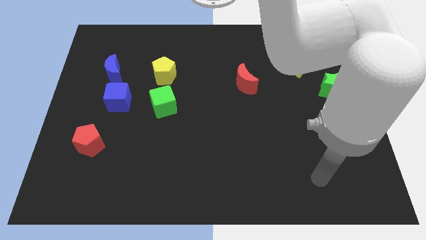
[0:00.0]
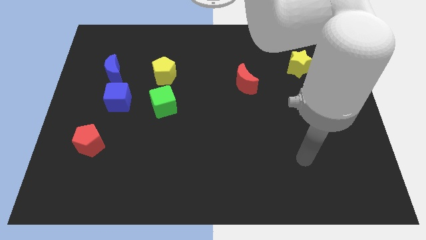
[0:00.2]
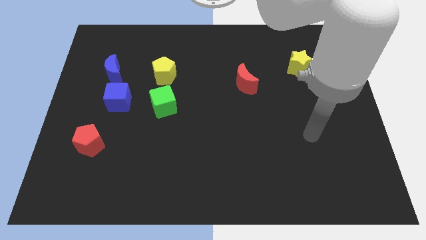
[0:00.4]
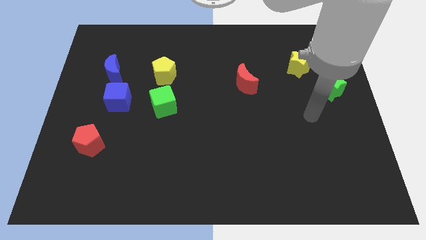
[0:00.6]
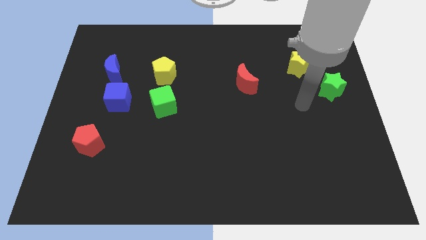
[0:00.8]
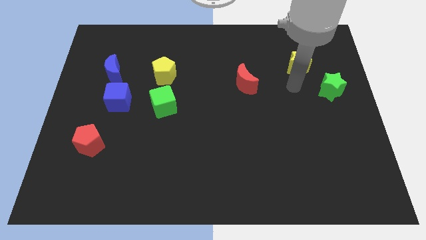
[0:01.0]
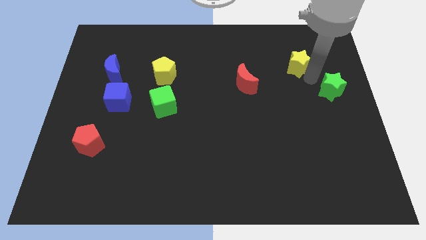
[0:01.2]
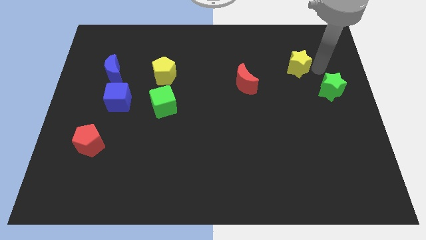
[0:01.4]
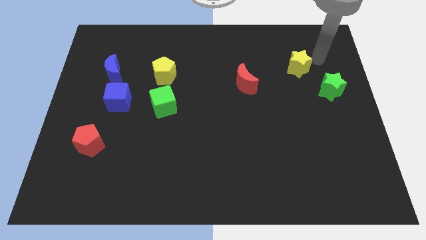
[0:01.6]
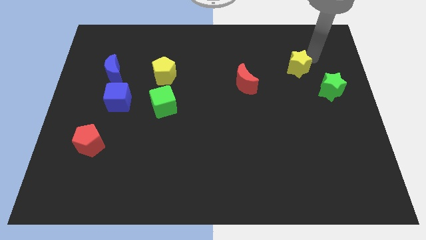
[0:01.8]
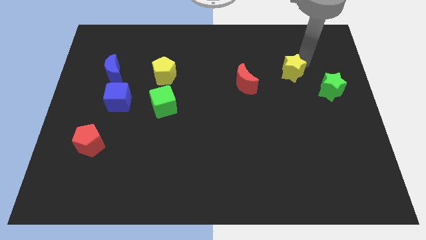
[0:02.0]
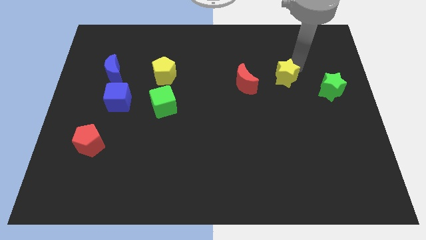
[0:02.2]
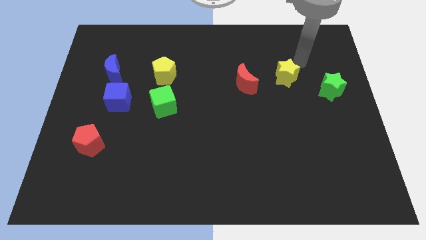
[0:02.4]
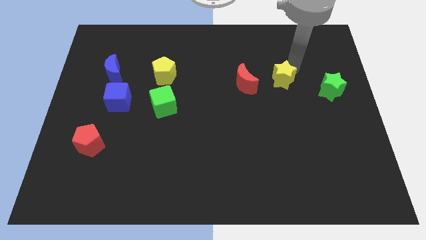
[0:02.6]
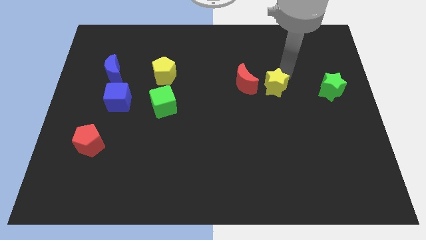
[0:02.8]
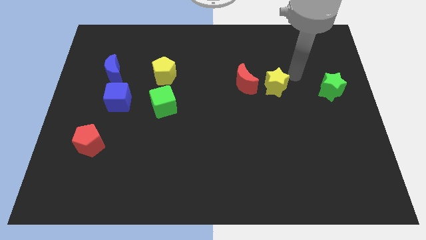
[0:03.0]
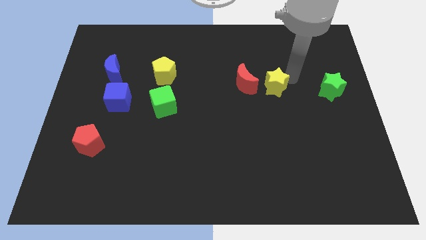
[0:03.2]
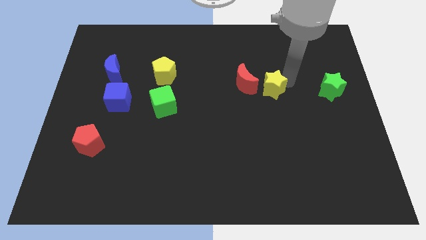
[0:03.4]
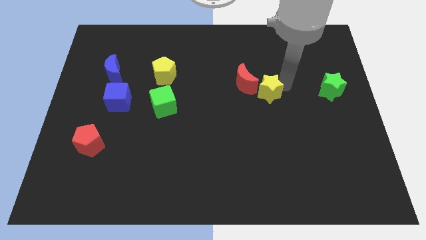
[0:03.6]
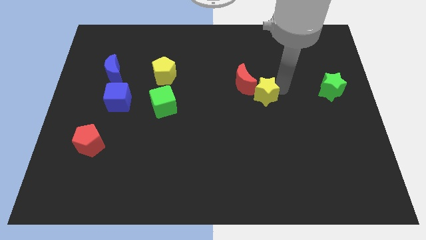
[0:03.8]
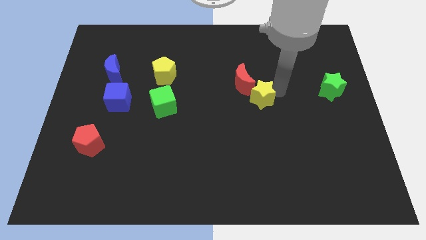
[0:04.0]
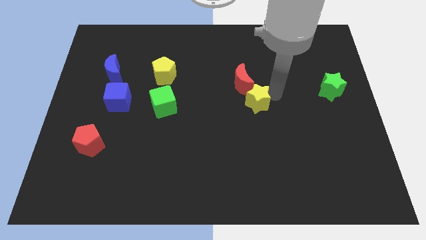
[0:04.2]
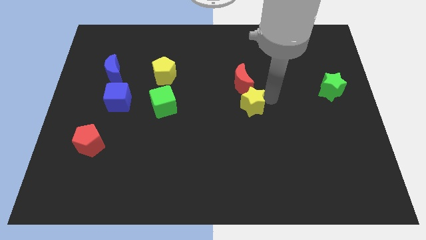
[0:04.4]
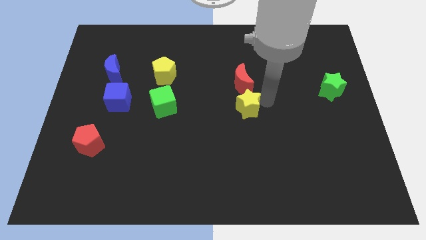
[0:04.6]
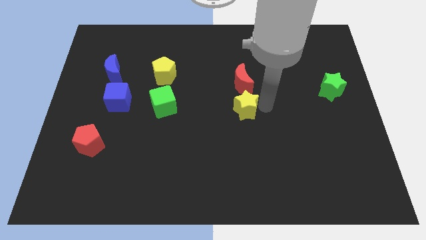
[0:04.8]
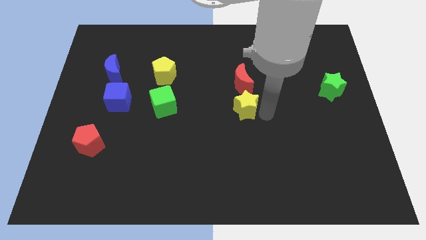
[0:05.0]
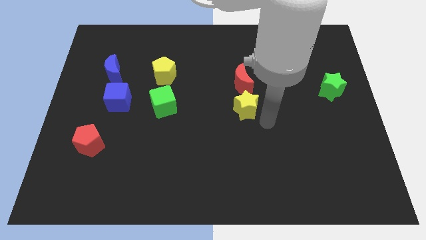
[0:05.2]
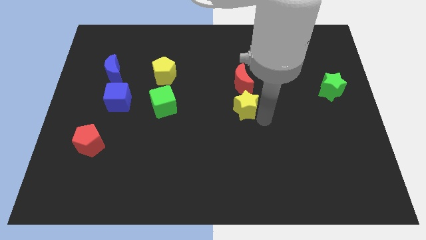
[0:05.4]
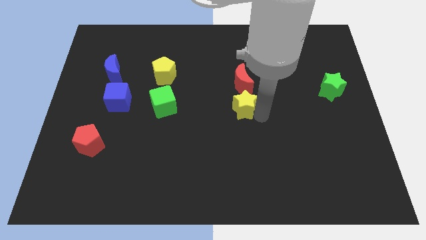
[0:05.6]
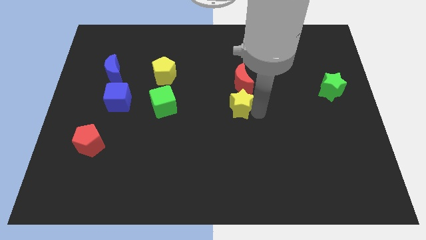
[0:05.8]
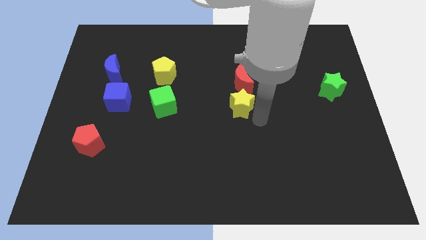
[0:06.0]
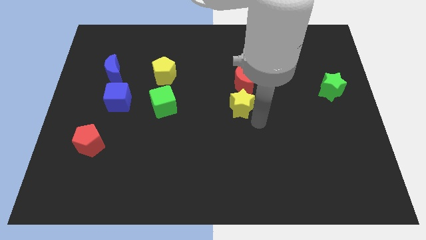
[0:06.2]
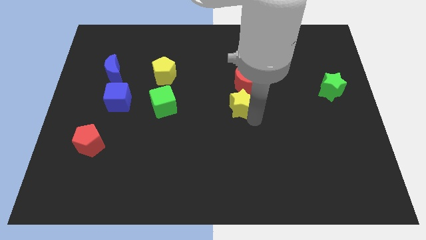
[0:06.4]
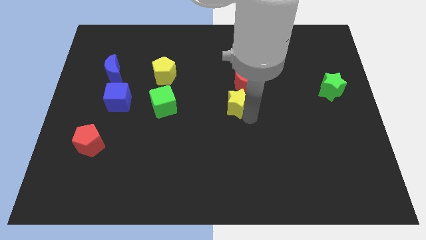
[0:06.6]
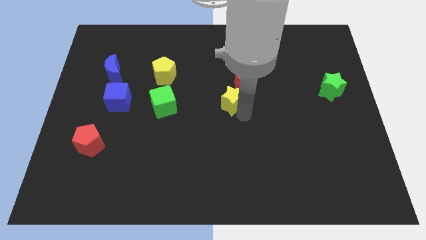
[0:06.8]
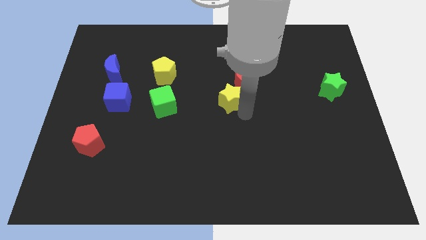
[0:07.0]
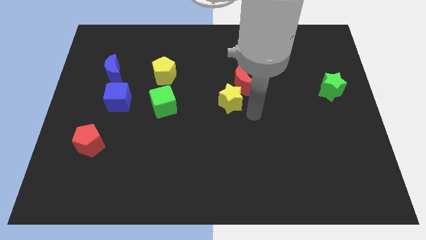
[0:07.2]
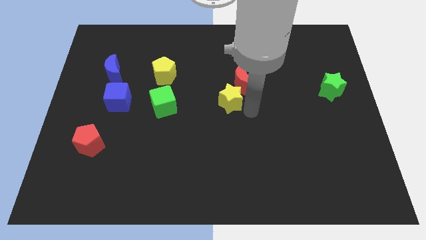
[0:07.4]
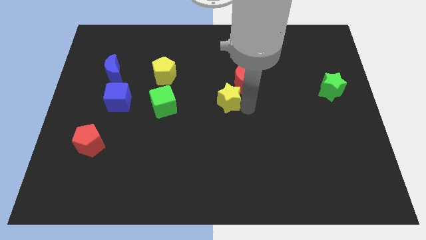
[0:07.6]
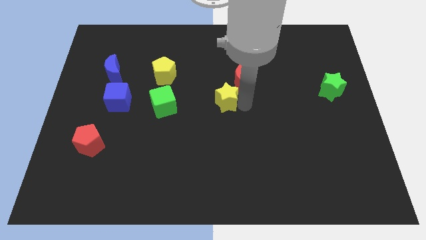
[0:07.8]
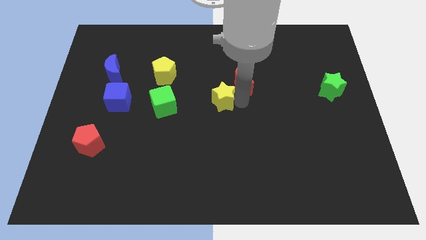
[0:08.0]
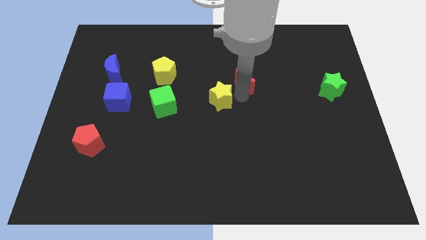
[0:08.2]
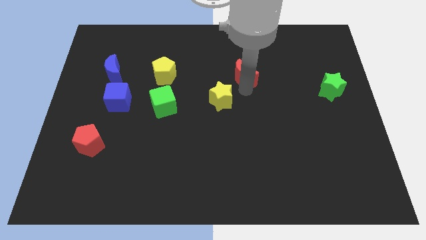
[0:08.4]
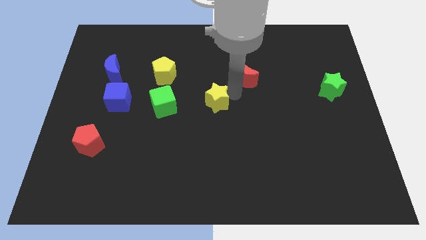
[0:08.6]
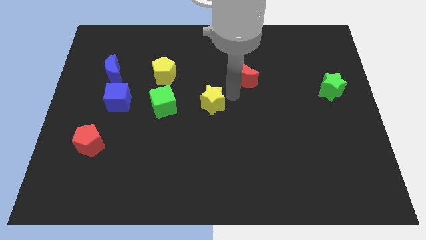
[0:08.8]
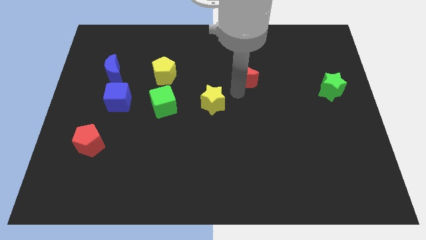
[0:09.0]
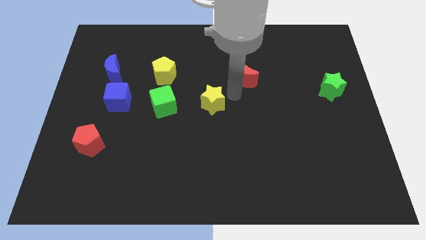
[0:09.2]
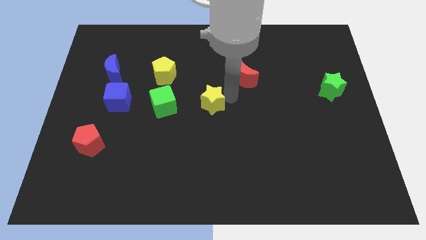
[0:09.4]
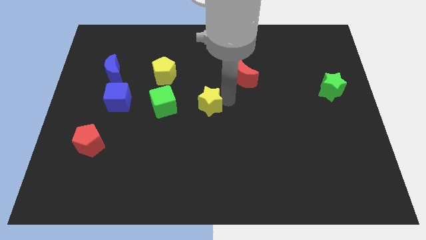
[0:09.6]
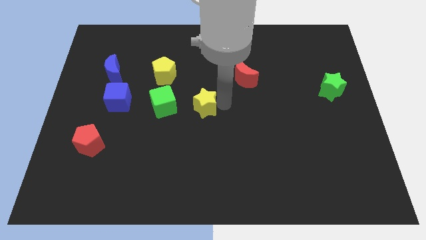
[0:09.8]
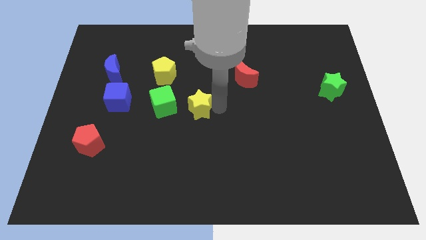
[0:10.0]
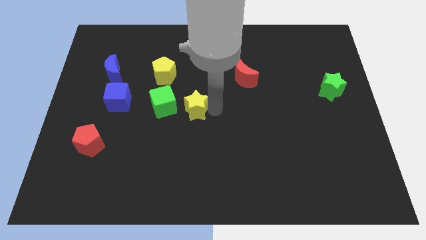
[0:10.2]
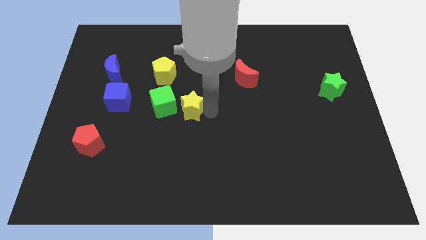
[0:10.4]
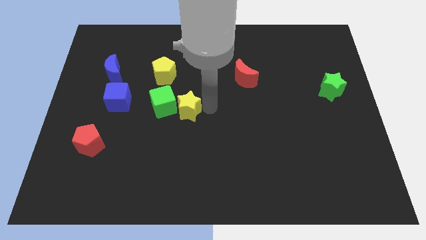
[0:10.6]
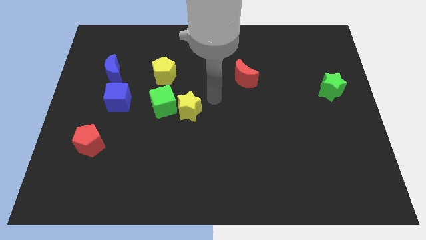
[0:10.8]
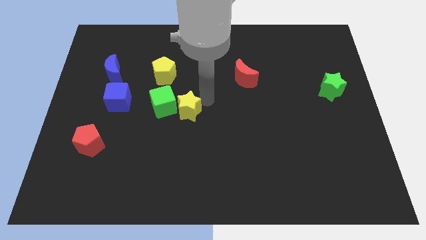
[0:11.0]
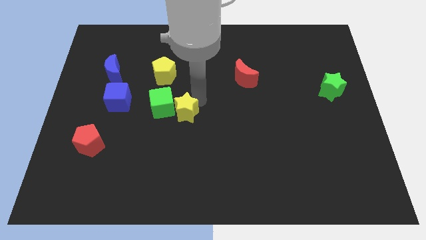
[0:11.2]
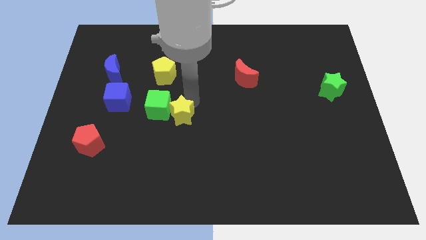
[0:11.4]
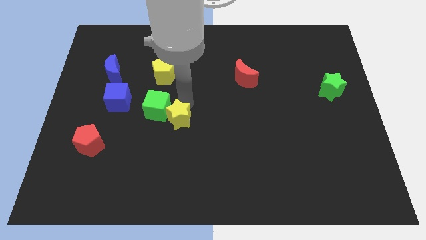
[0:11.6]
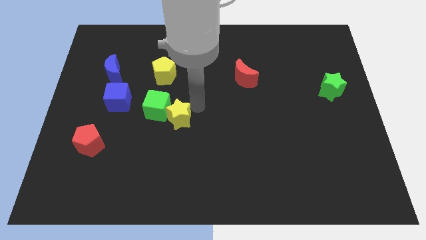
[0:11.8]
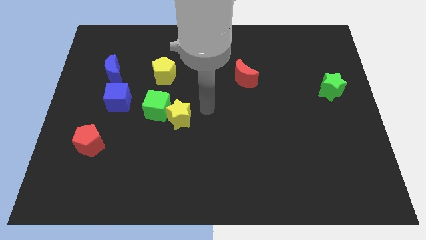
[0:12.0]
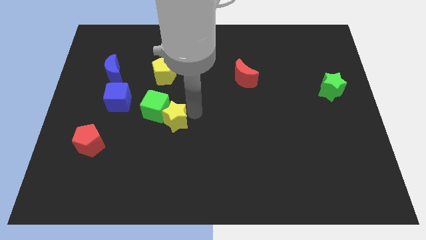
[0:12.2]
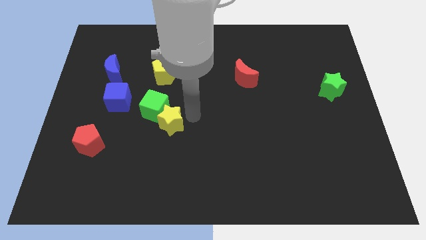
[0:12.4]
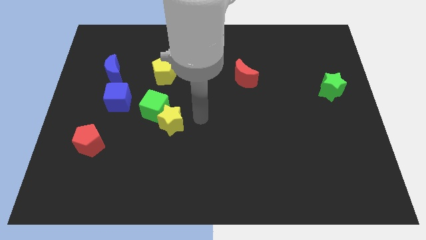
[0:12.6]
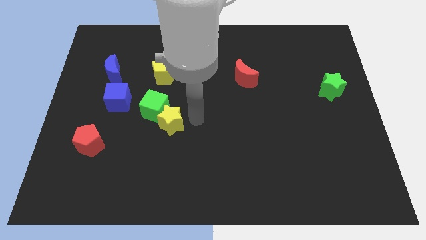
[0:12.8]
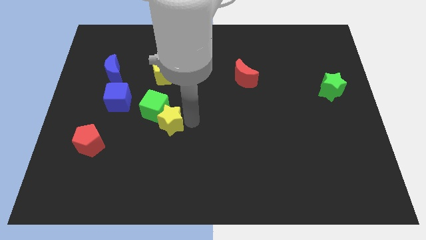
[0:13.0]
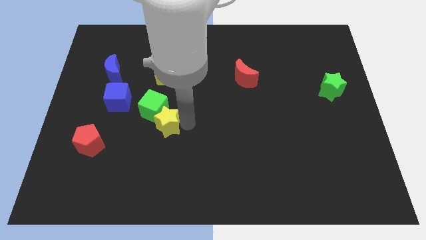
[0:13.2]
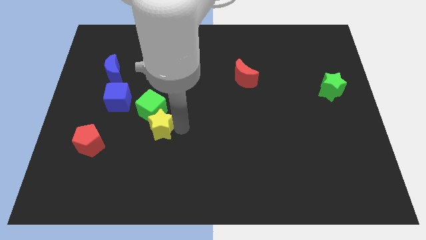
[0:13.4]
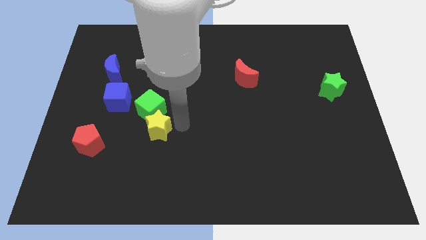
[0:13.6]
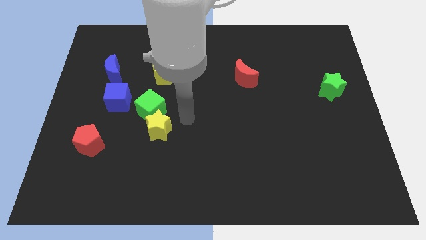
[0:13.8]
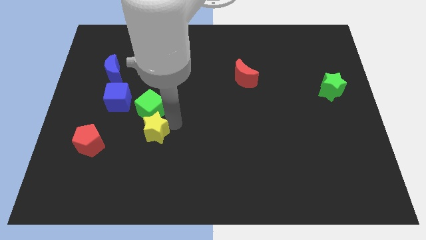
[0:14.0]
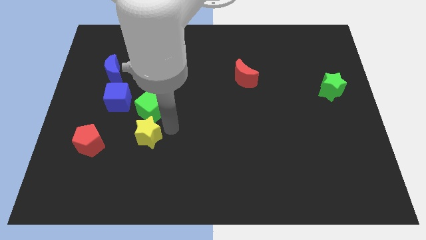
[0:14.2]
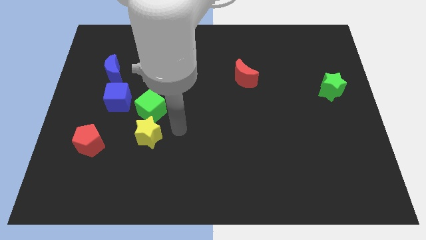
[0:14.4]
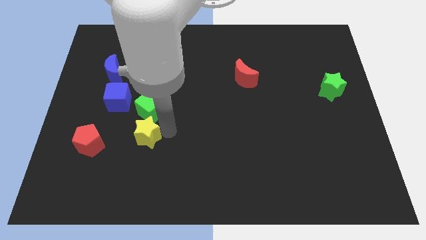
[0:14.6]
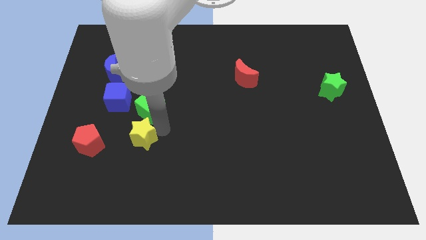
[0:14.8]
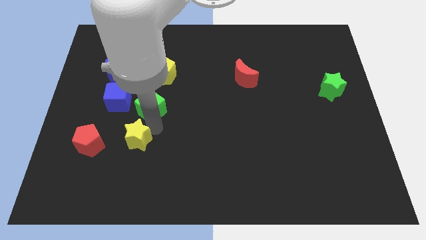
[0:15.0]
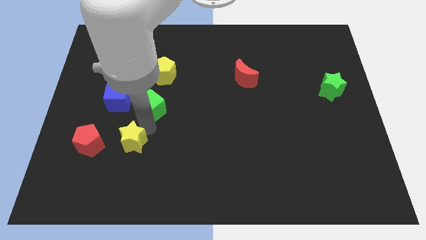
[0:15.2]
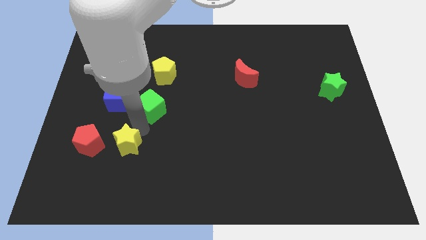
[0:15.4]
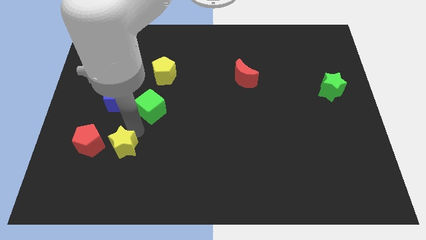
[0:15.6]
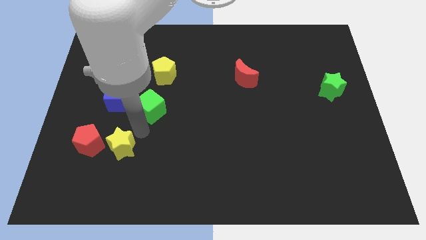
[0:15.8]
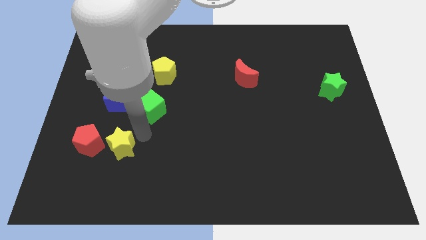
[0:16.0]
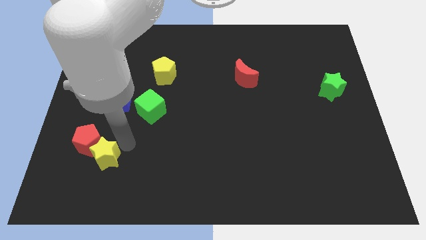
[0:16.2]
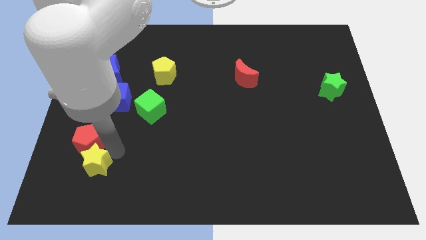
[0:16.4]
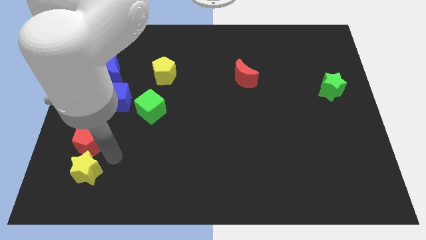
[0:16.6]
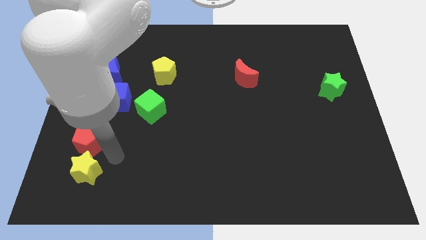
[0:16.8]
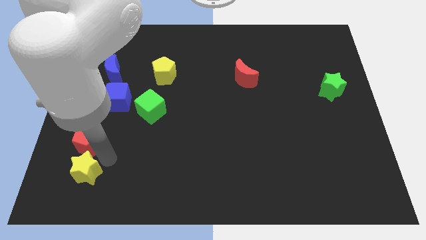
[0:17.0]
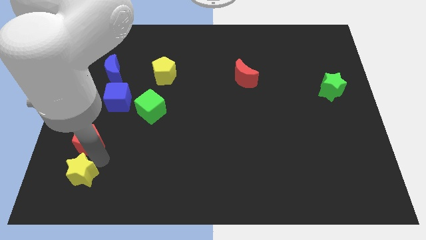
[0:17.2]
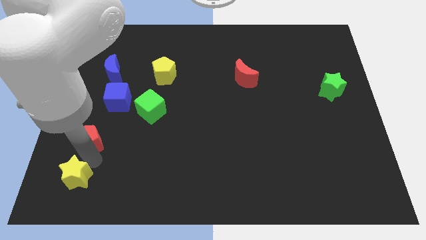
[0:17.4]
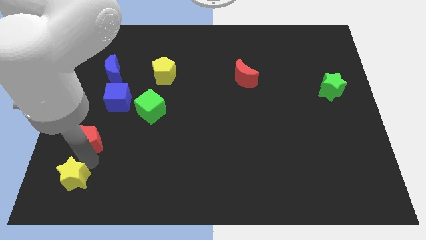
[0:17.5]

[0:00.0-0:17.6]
move the yellow star to the bottom left of the board
